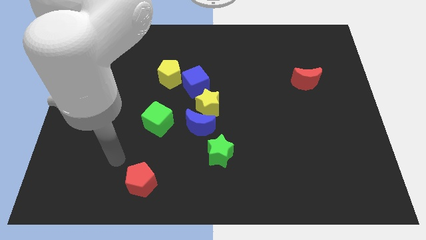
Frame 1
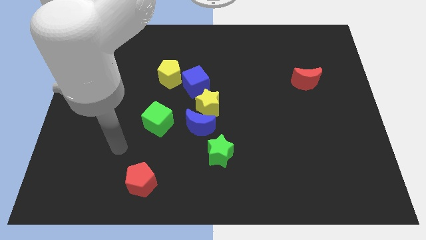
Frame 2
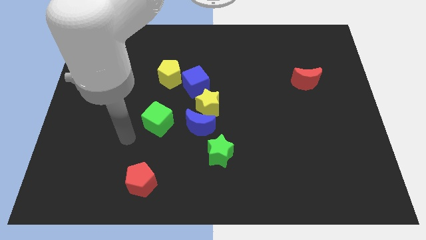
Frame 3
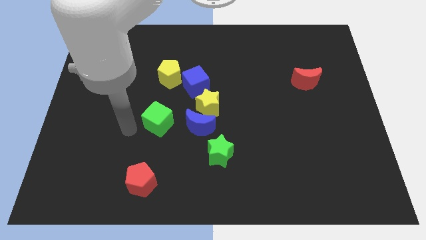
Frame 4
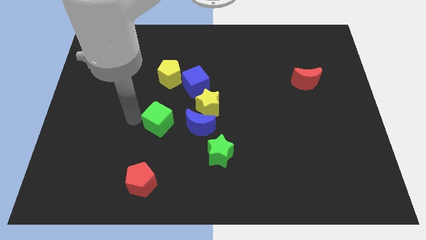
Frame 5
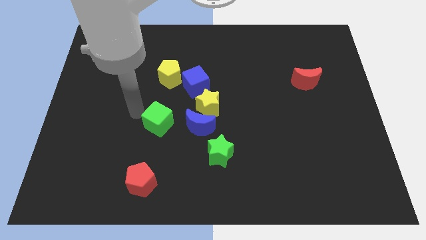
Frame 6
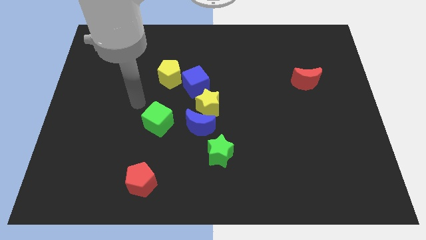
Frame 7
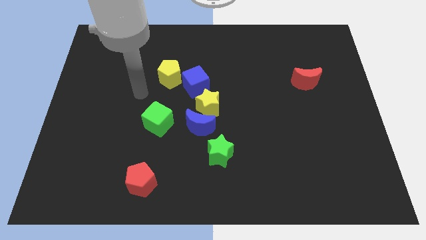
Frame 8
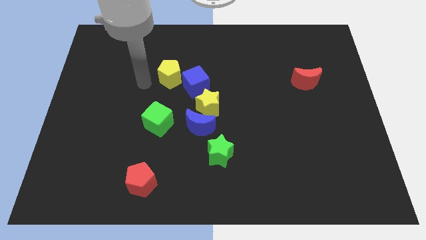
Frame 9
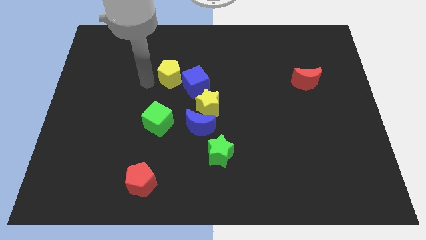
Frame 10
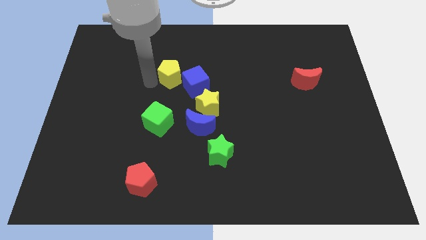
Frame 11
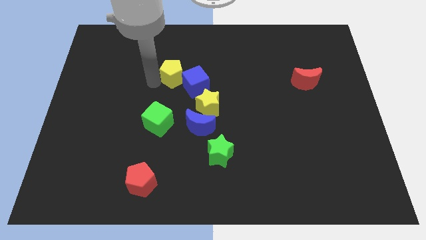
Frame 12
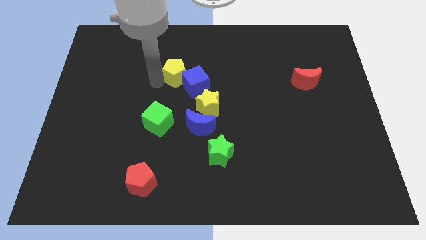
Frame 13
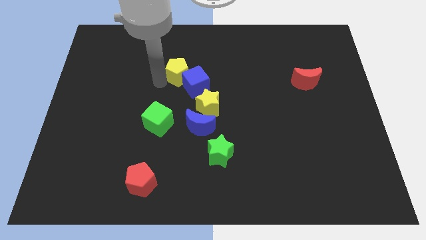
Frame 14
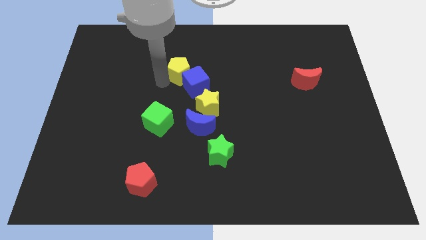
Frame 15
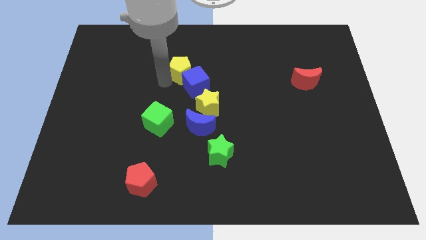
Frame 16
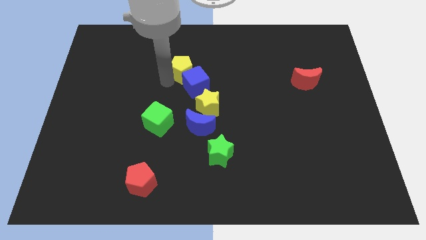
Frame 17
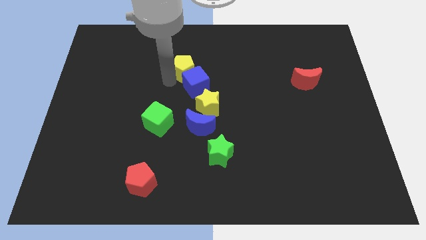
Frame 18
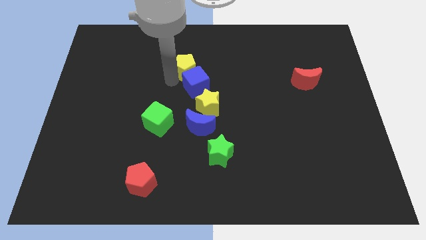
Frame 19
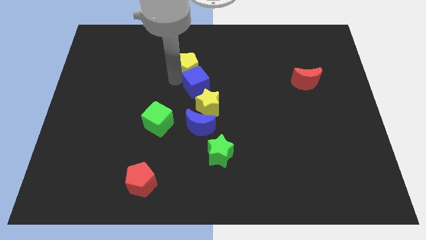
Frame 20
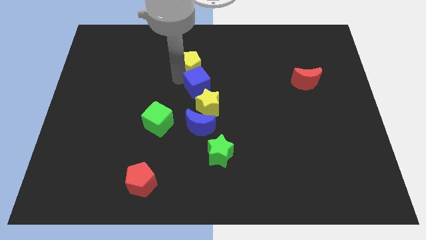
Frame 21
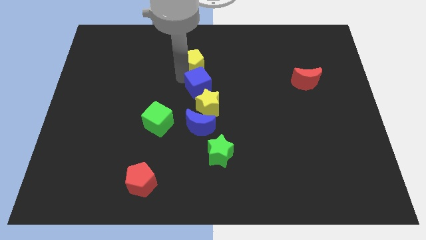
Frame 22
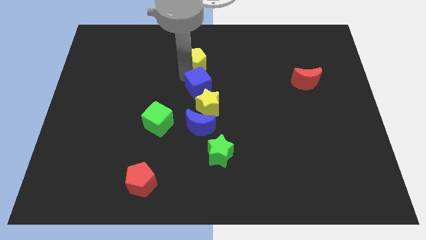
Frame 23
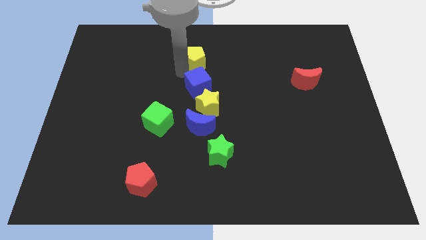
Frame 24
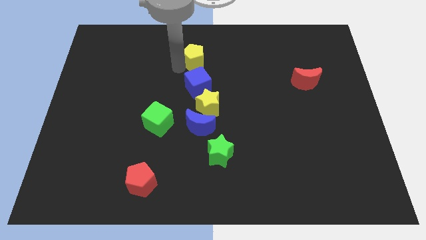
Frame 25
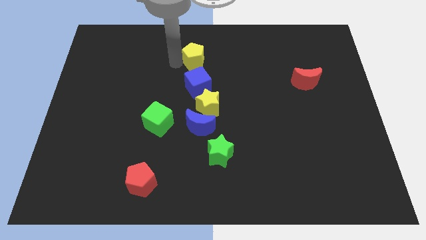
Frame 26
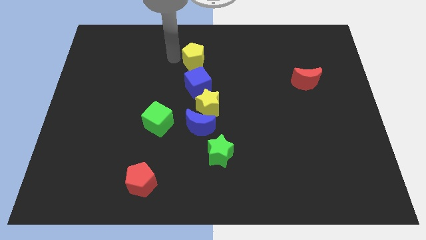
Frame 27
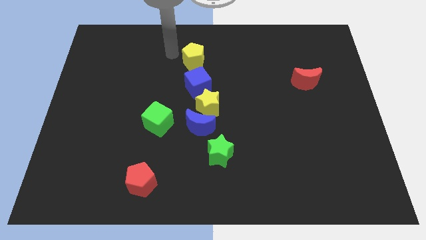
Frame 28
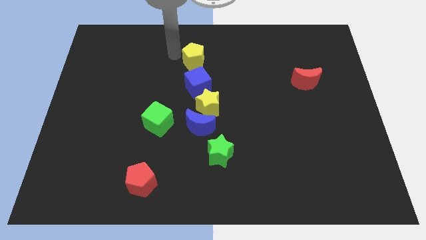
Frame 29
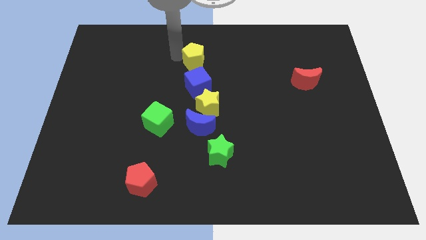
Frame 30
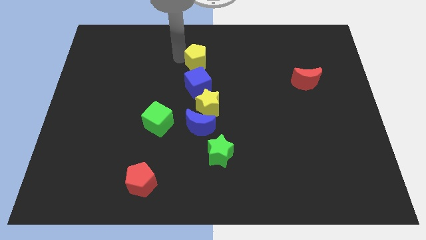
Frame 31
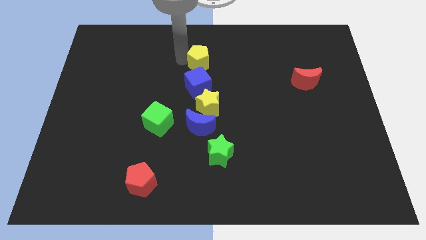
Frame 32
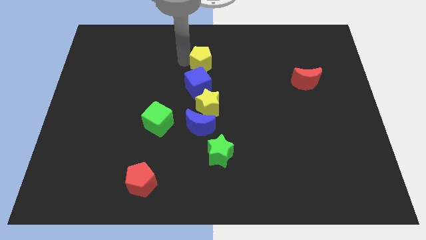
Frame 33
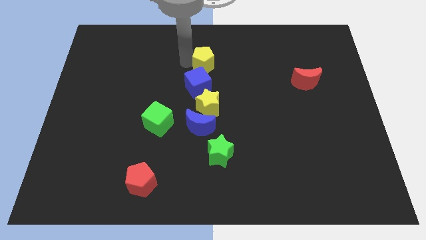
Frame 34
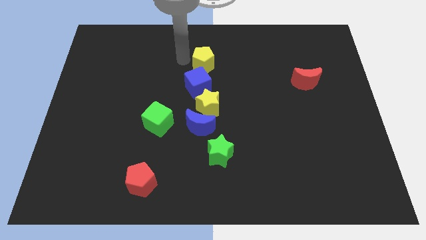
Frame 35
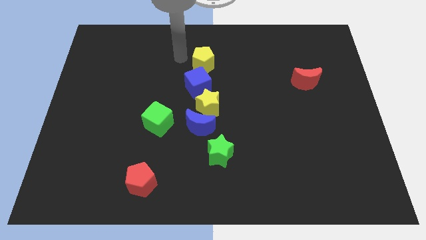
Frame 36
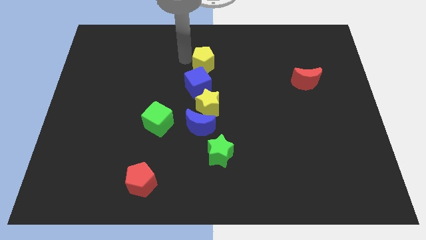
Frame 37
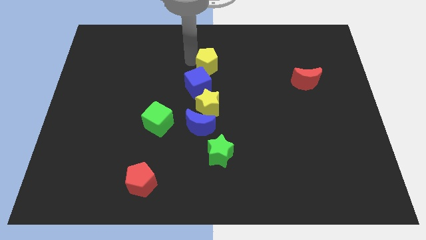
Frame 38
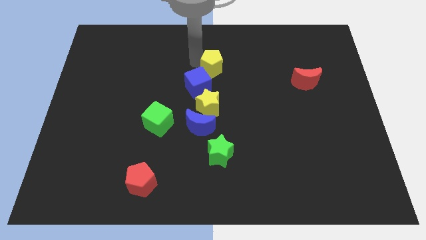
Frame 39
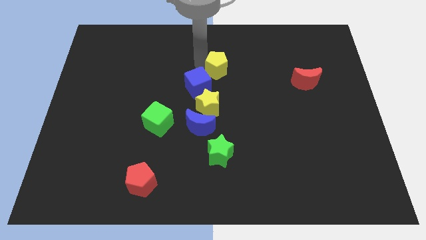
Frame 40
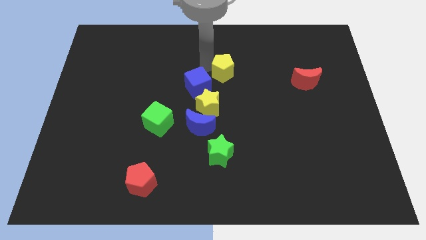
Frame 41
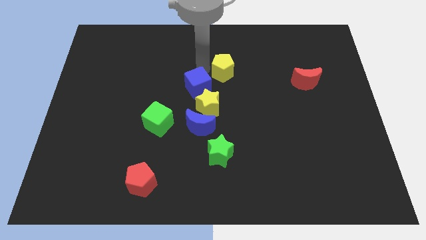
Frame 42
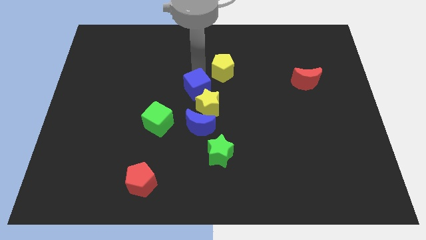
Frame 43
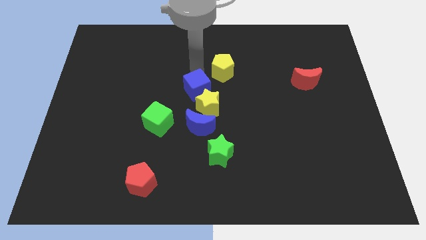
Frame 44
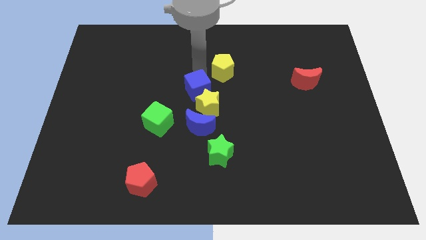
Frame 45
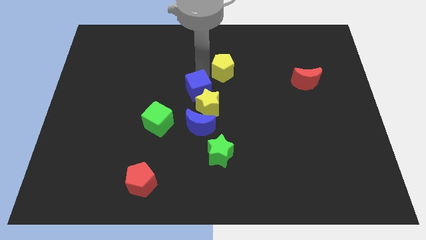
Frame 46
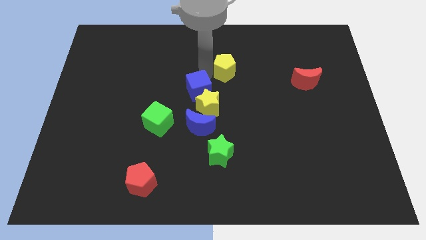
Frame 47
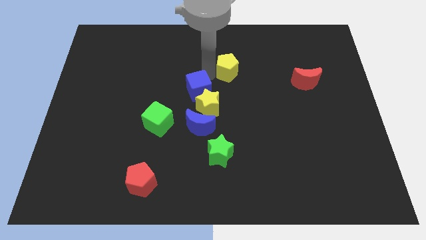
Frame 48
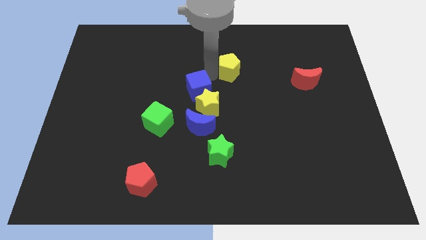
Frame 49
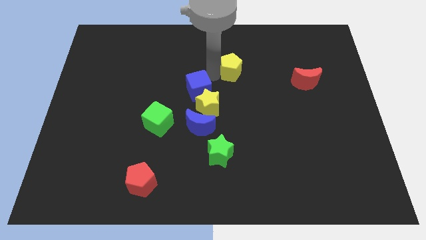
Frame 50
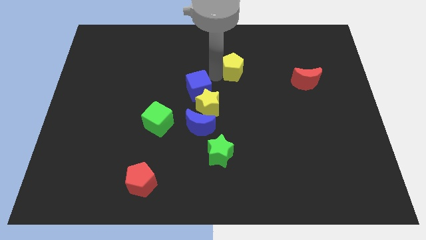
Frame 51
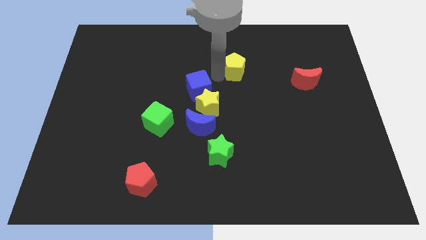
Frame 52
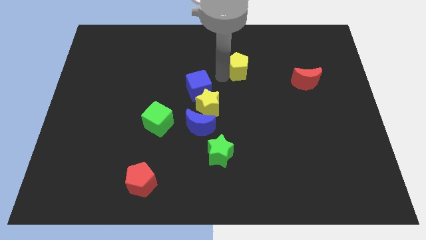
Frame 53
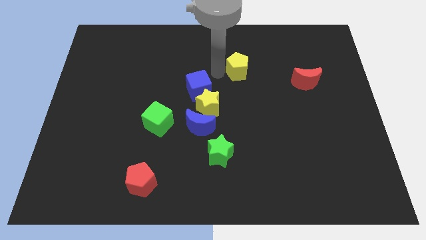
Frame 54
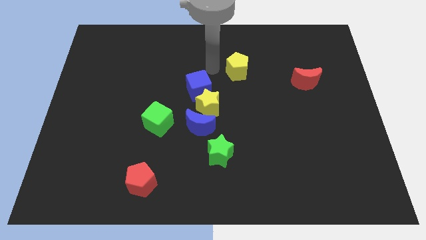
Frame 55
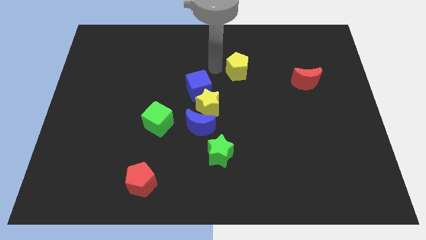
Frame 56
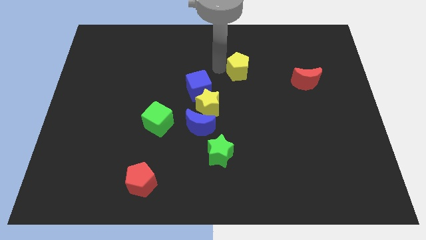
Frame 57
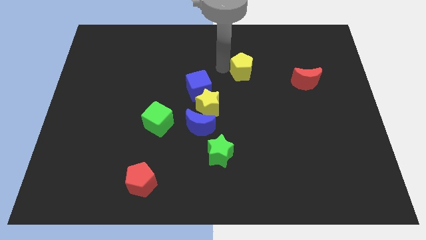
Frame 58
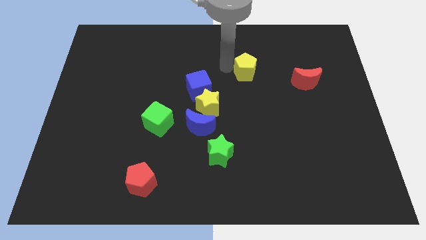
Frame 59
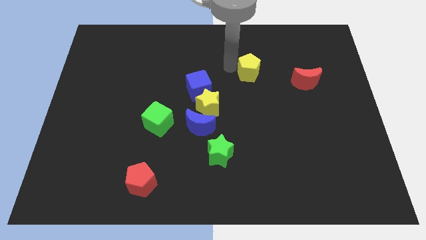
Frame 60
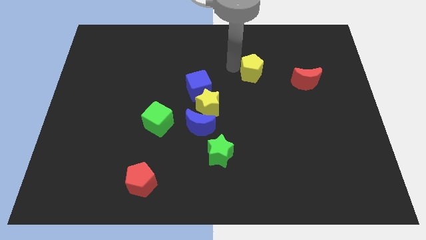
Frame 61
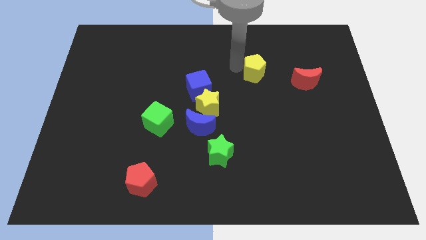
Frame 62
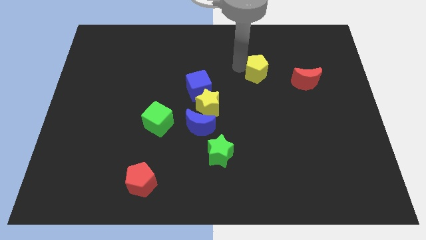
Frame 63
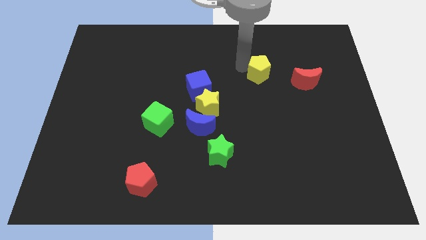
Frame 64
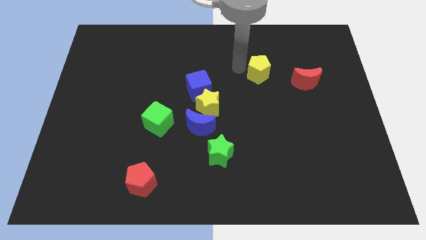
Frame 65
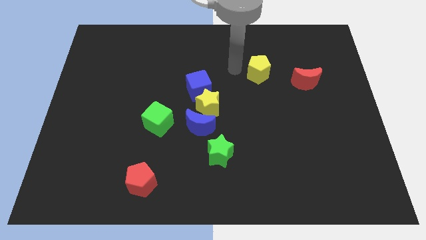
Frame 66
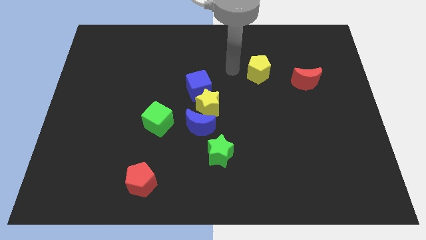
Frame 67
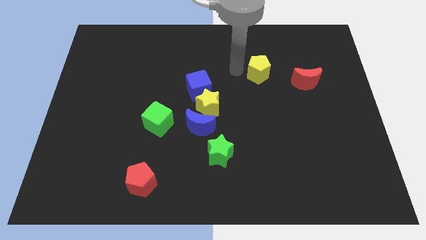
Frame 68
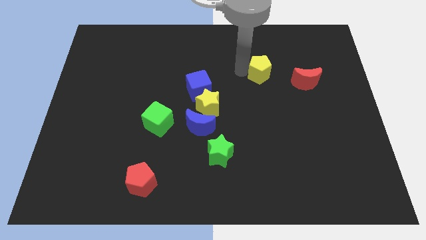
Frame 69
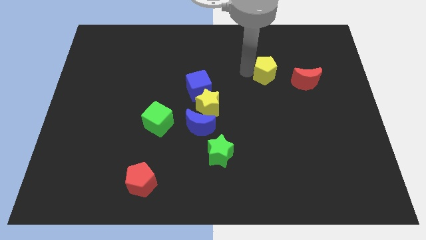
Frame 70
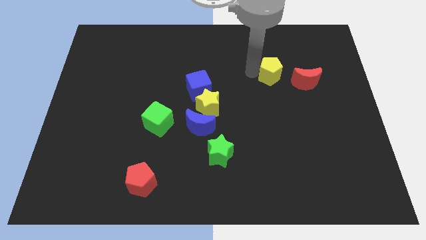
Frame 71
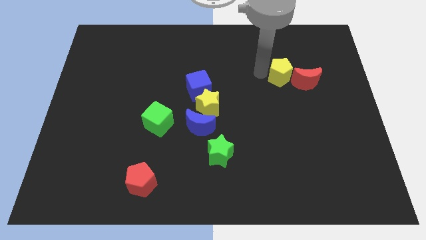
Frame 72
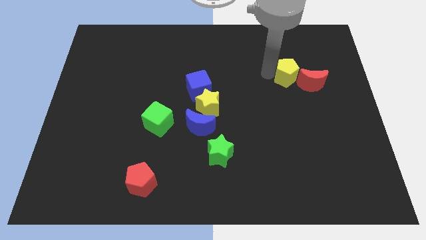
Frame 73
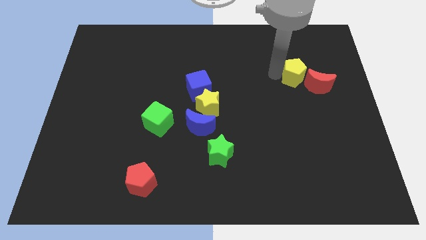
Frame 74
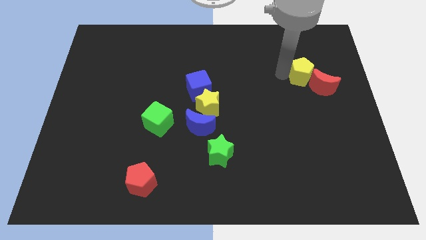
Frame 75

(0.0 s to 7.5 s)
push the yellow pentagon towards the red moon
